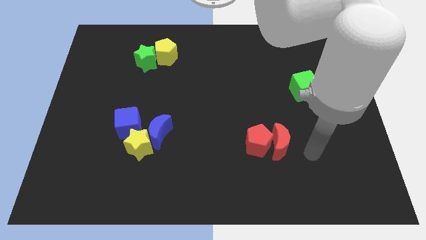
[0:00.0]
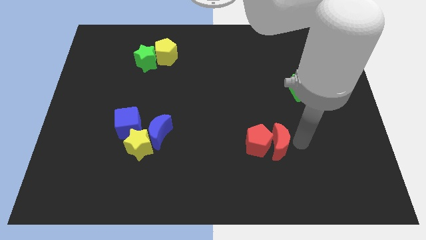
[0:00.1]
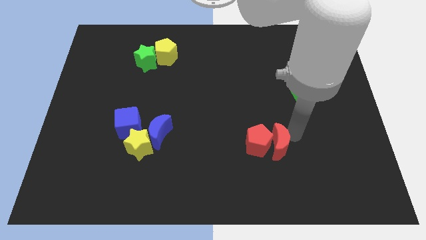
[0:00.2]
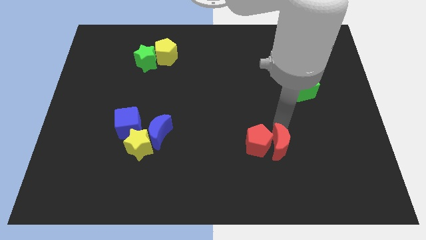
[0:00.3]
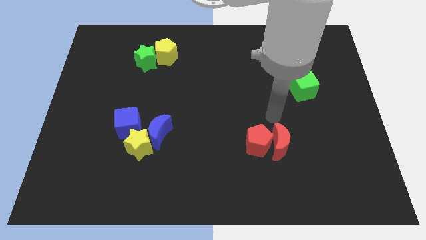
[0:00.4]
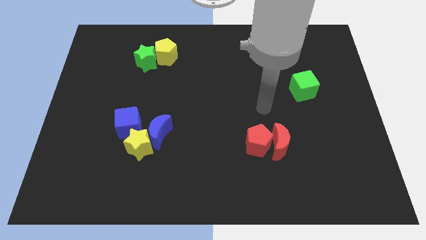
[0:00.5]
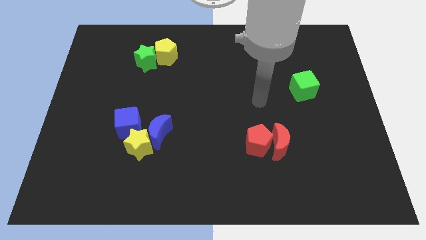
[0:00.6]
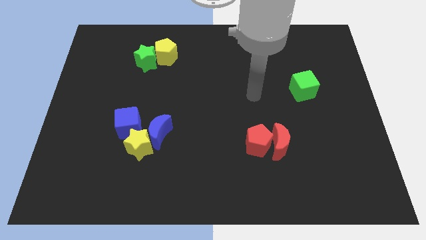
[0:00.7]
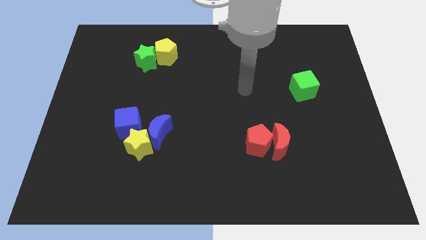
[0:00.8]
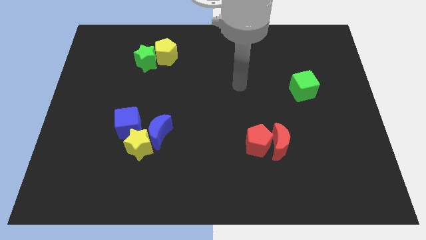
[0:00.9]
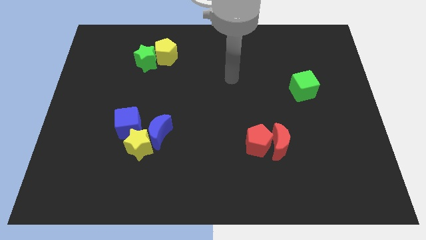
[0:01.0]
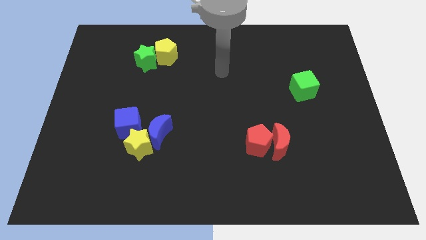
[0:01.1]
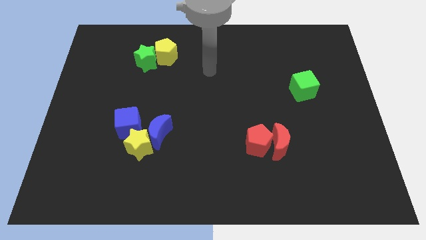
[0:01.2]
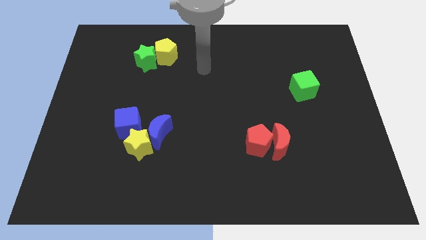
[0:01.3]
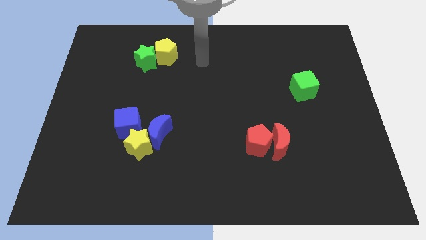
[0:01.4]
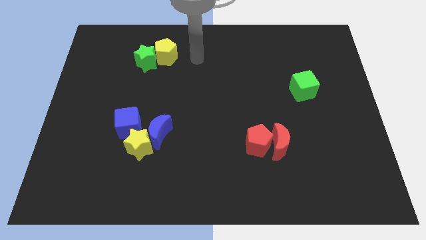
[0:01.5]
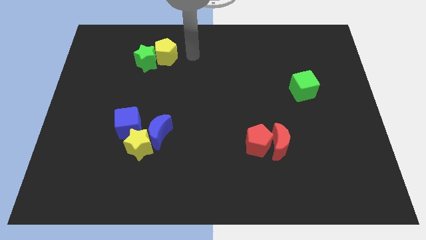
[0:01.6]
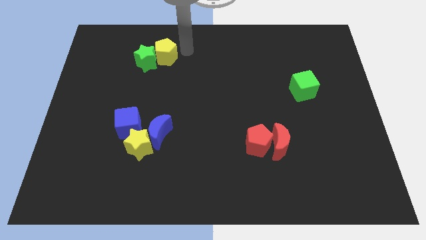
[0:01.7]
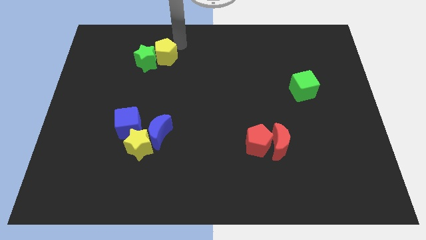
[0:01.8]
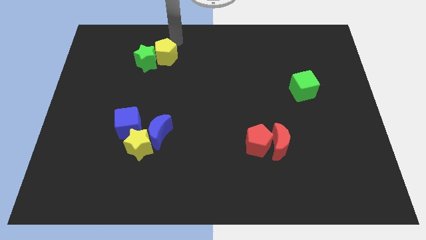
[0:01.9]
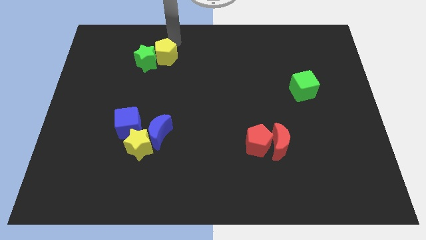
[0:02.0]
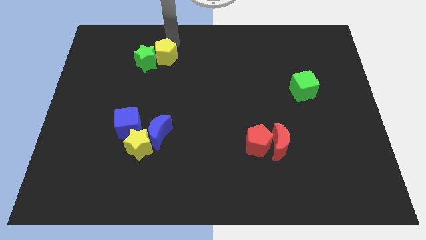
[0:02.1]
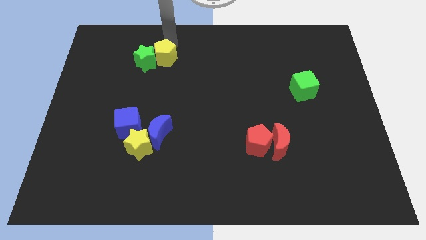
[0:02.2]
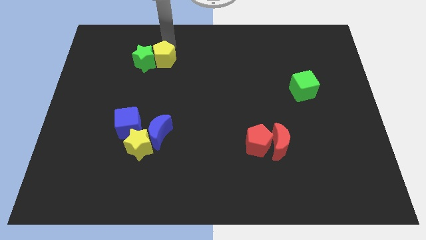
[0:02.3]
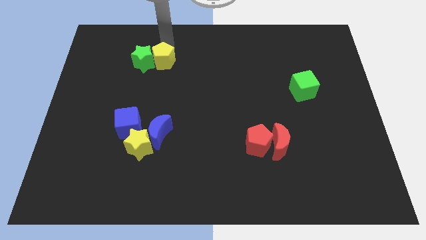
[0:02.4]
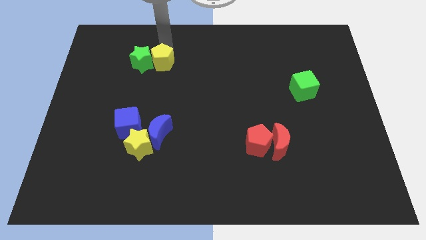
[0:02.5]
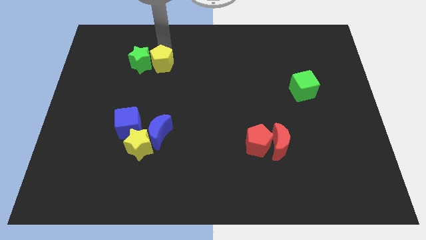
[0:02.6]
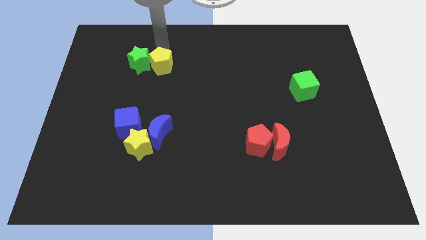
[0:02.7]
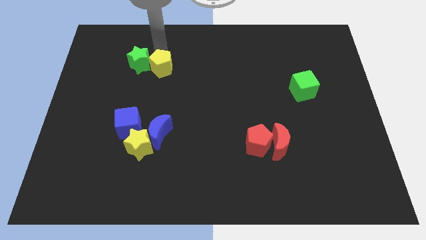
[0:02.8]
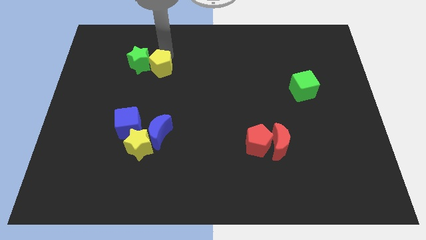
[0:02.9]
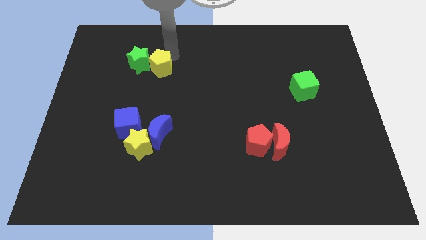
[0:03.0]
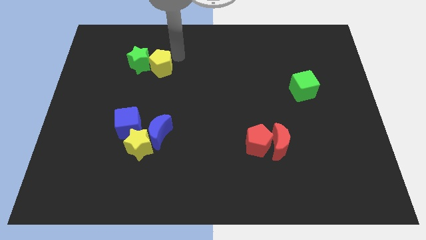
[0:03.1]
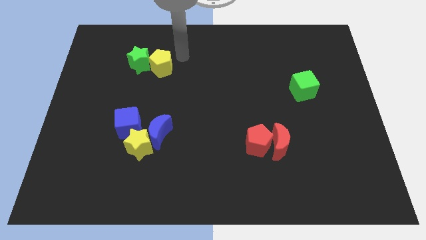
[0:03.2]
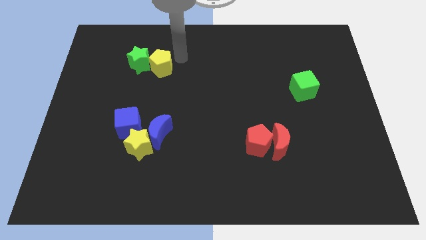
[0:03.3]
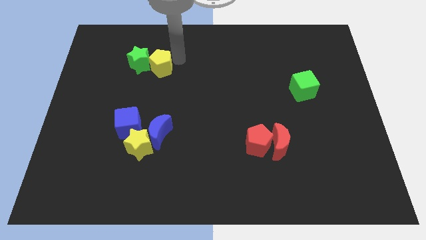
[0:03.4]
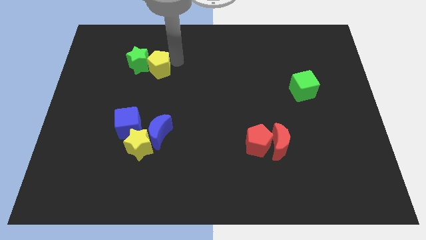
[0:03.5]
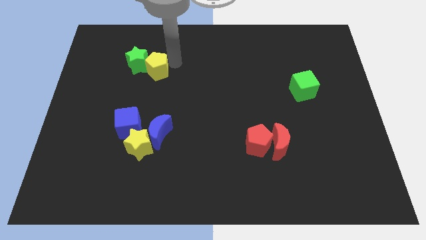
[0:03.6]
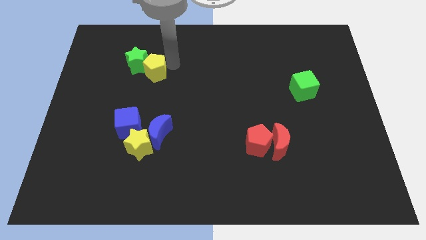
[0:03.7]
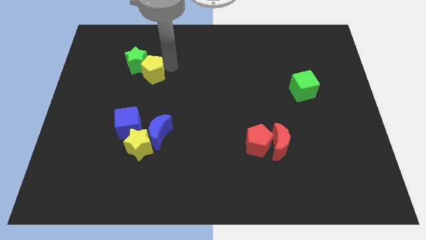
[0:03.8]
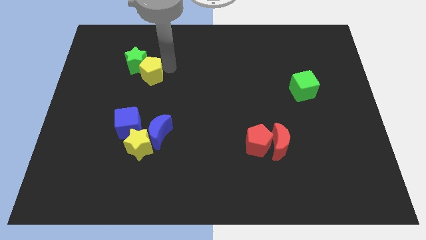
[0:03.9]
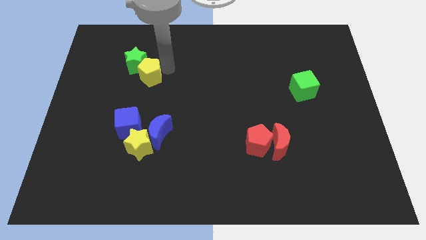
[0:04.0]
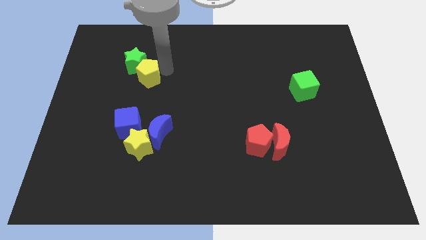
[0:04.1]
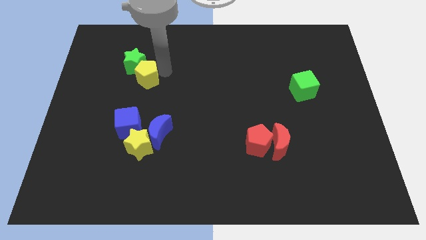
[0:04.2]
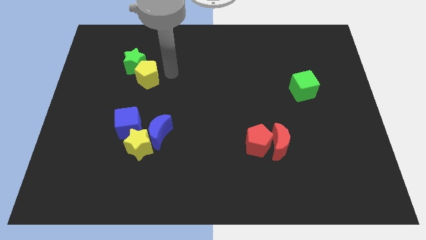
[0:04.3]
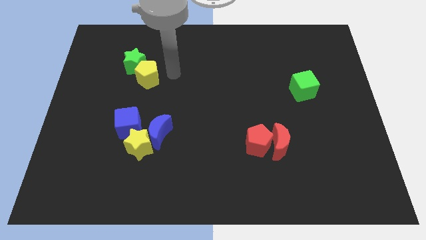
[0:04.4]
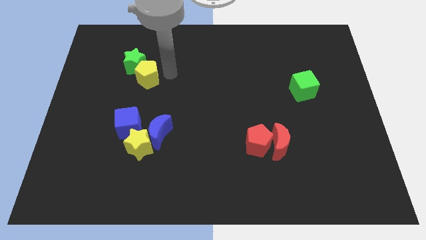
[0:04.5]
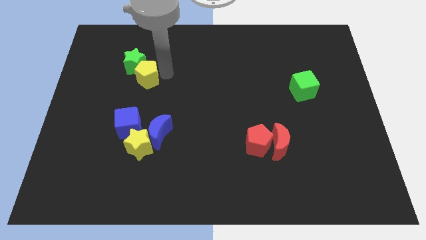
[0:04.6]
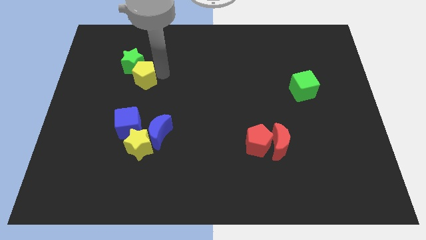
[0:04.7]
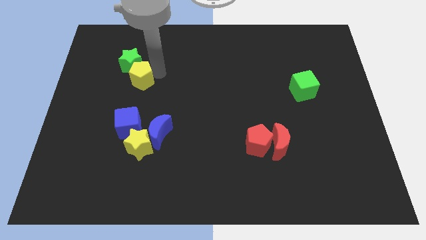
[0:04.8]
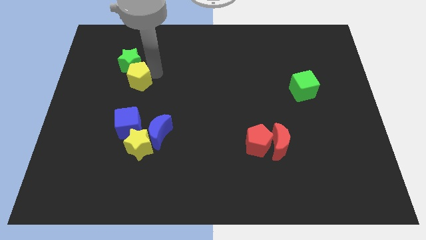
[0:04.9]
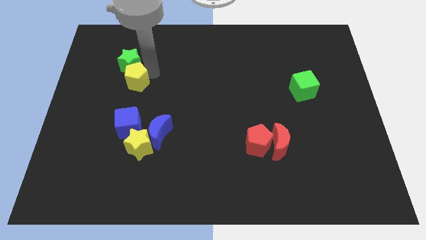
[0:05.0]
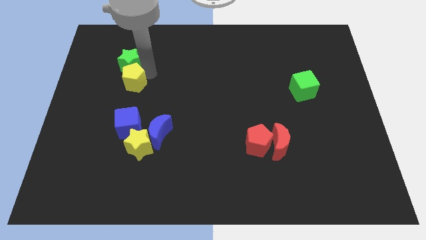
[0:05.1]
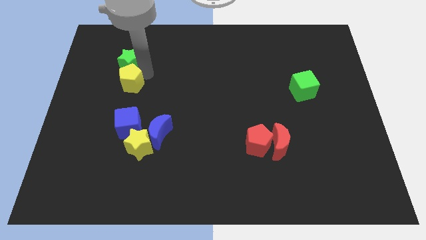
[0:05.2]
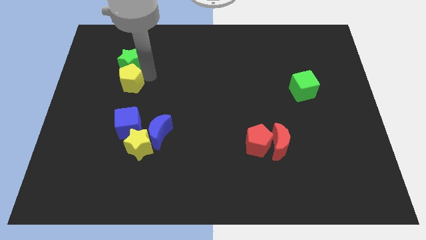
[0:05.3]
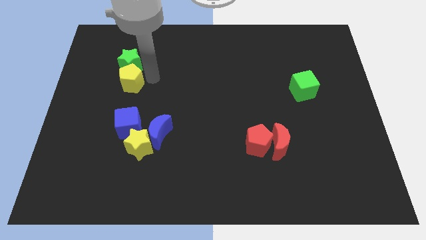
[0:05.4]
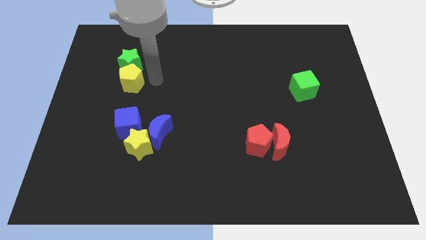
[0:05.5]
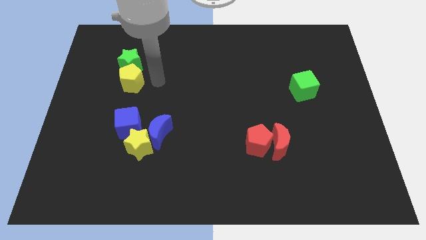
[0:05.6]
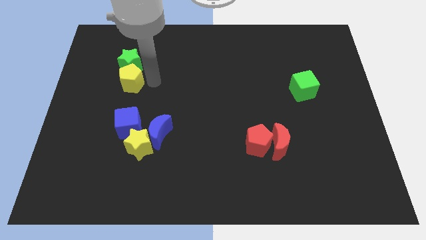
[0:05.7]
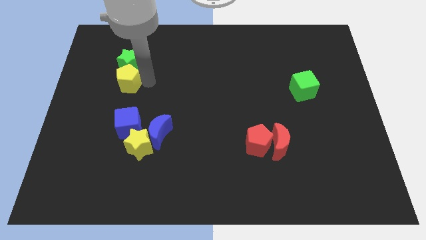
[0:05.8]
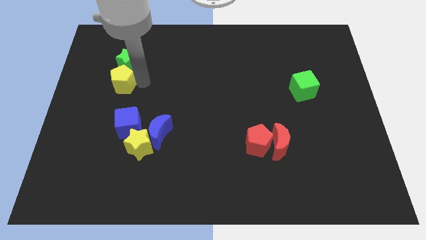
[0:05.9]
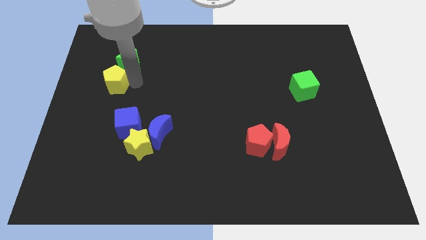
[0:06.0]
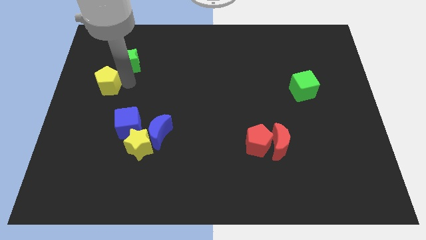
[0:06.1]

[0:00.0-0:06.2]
put the yellow pentagon to the left side
